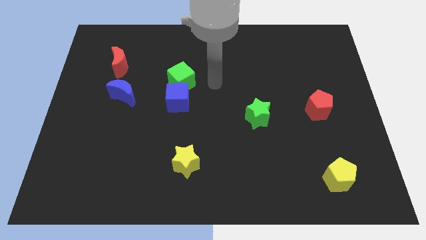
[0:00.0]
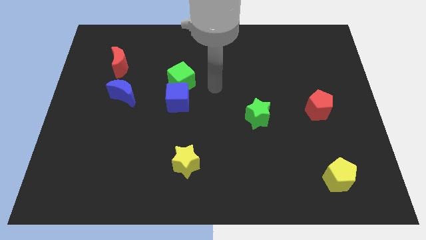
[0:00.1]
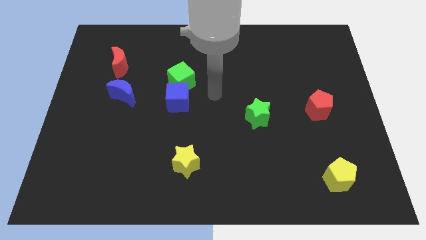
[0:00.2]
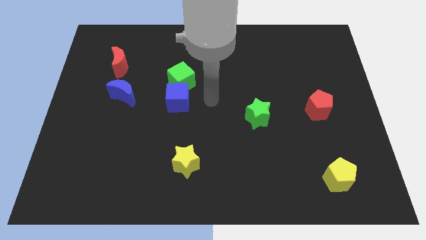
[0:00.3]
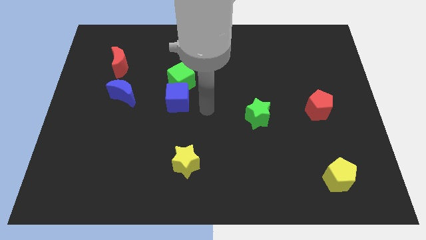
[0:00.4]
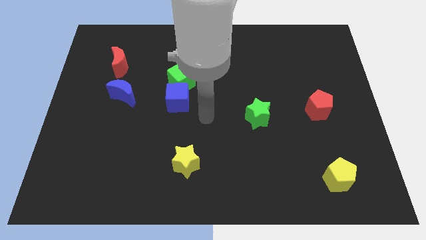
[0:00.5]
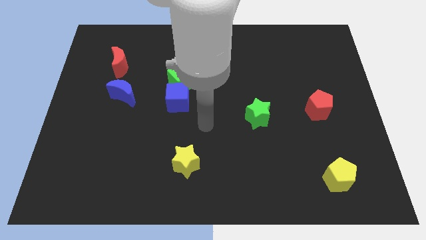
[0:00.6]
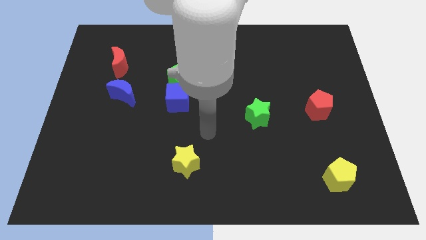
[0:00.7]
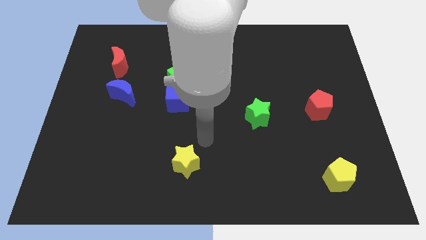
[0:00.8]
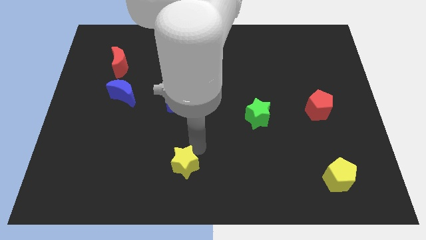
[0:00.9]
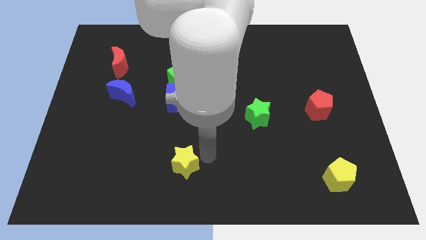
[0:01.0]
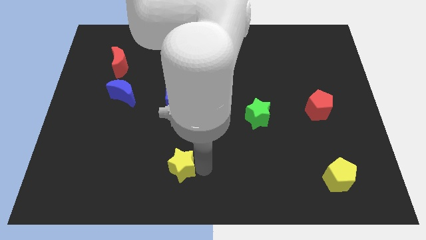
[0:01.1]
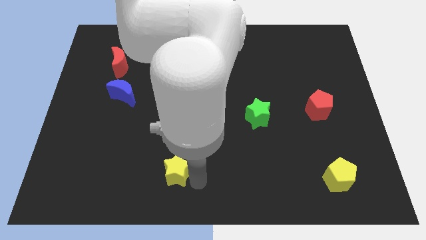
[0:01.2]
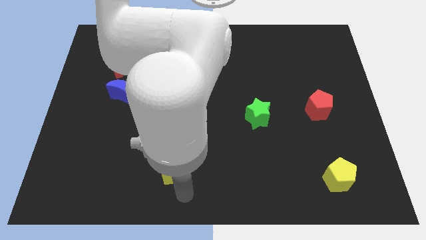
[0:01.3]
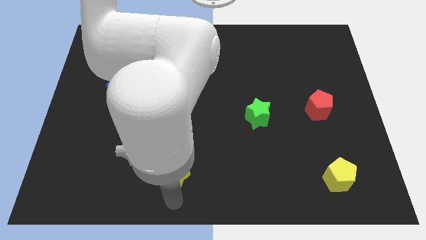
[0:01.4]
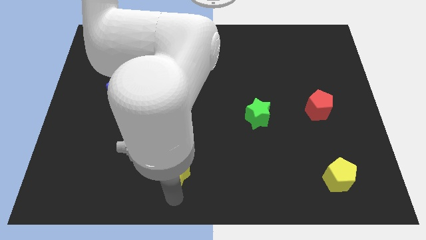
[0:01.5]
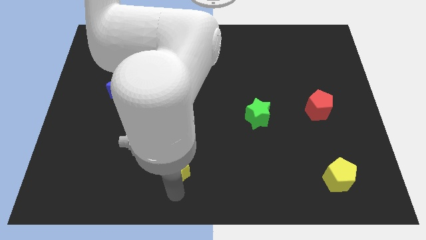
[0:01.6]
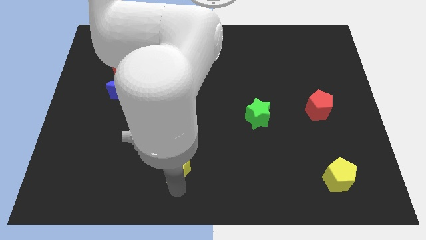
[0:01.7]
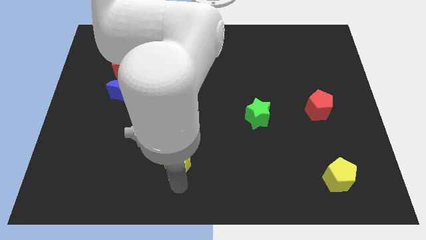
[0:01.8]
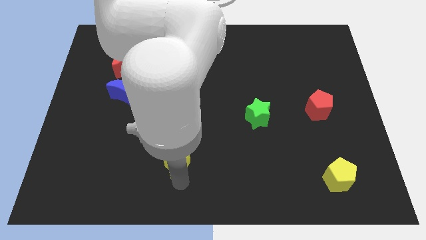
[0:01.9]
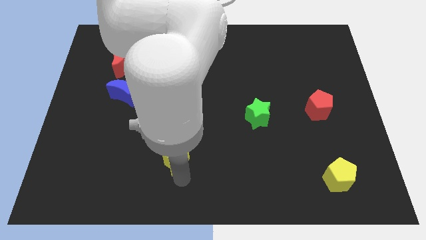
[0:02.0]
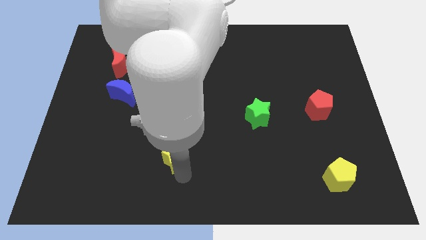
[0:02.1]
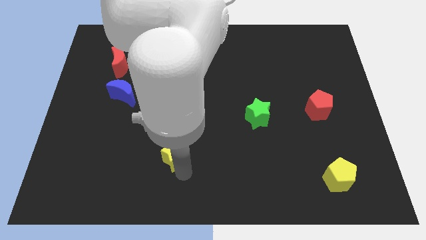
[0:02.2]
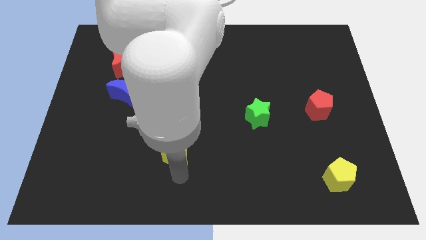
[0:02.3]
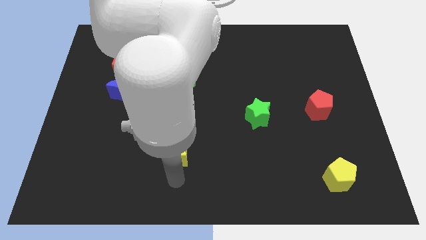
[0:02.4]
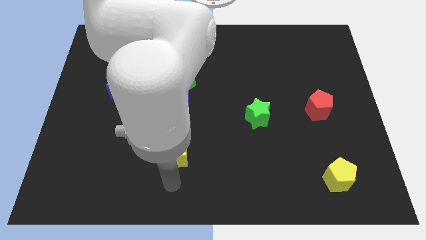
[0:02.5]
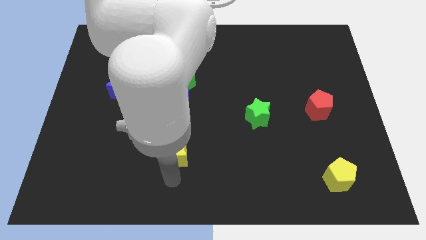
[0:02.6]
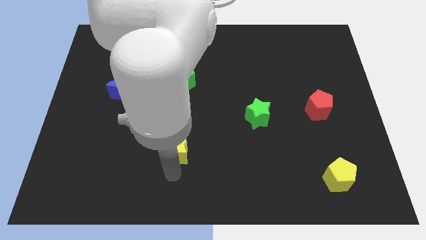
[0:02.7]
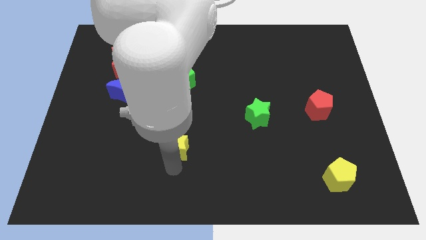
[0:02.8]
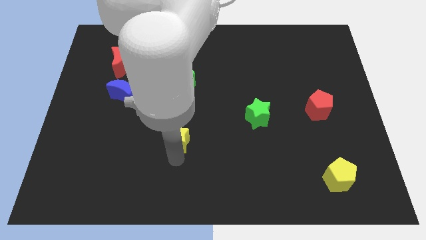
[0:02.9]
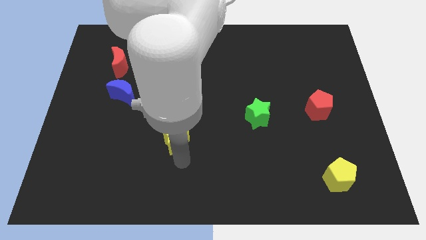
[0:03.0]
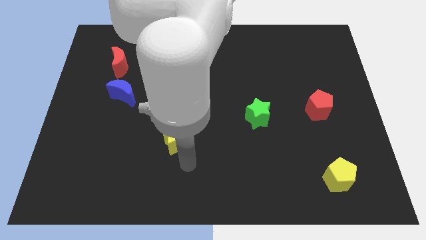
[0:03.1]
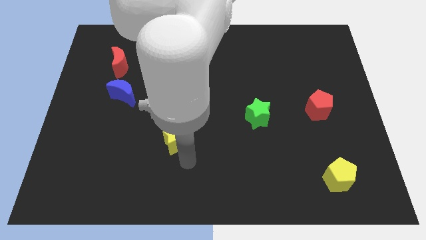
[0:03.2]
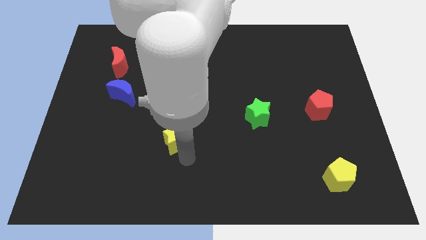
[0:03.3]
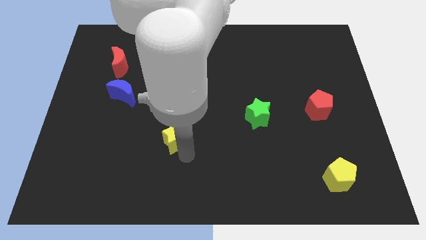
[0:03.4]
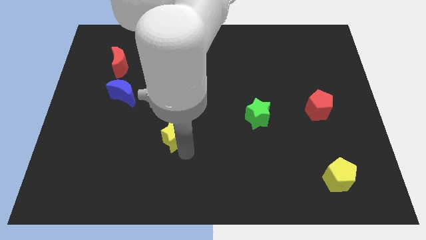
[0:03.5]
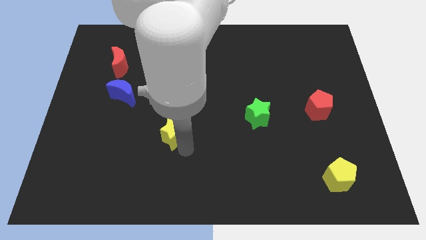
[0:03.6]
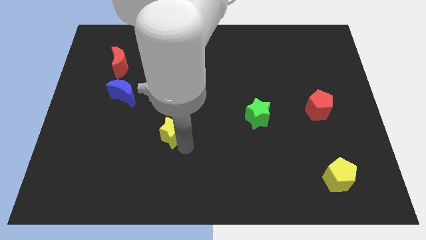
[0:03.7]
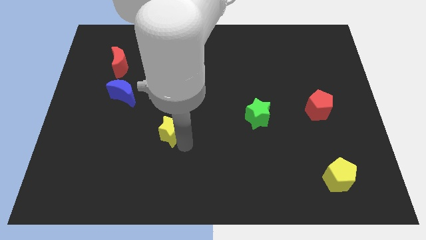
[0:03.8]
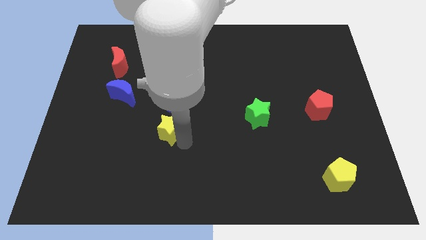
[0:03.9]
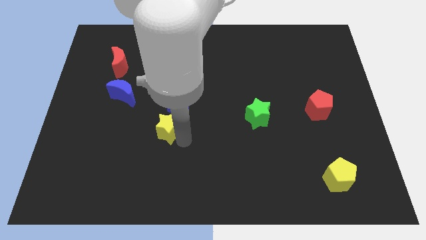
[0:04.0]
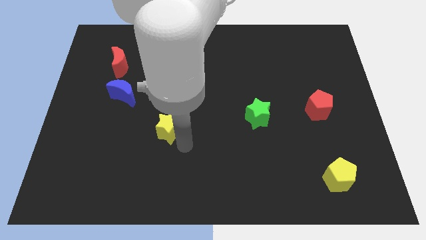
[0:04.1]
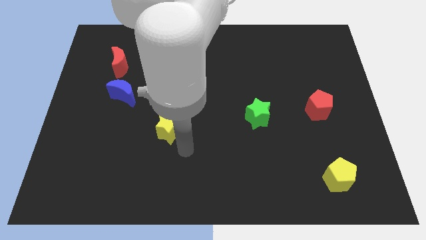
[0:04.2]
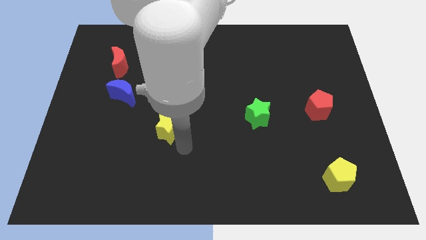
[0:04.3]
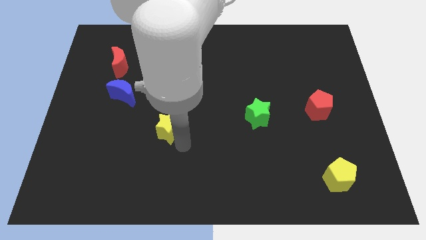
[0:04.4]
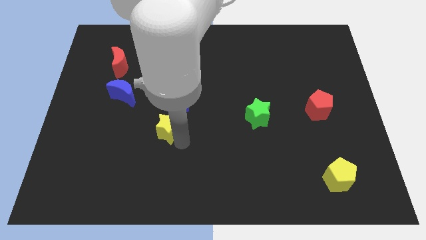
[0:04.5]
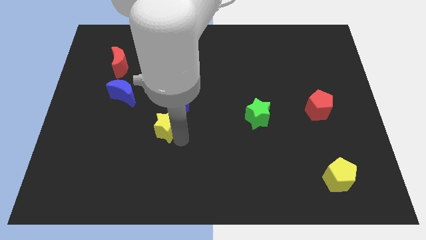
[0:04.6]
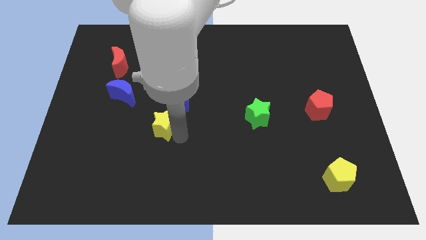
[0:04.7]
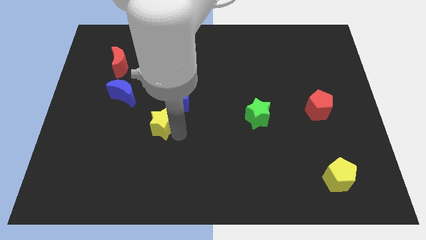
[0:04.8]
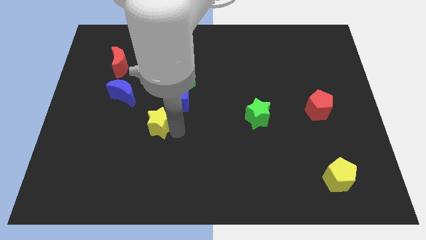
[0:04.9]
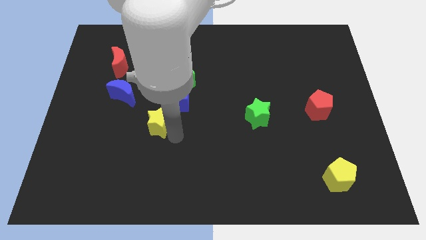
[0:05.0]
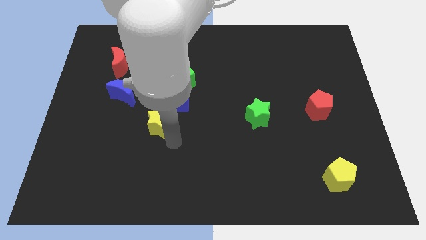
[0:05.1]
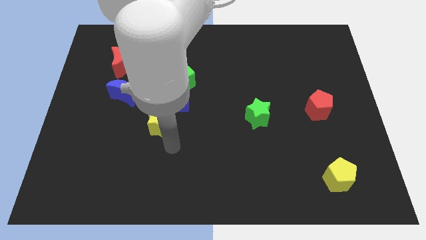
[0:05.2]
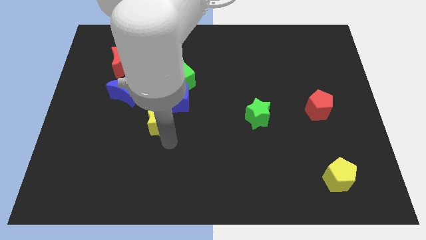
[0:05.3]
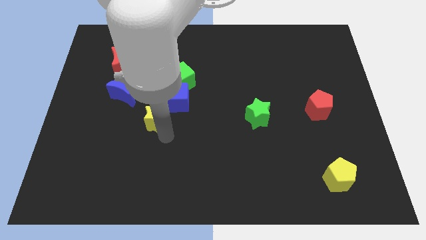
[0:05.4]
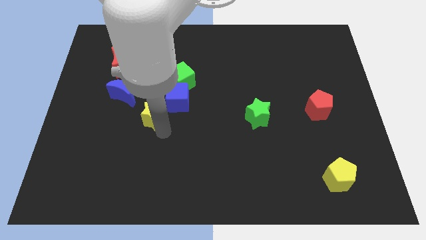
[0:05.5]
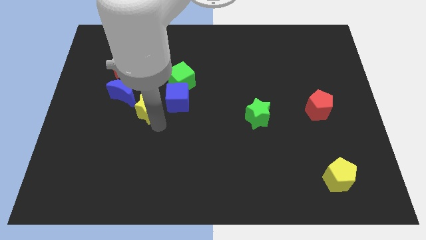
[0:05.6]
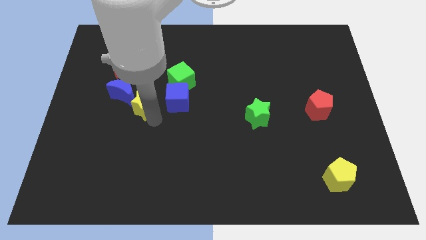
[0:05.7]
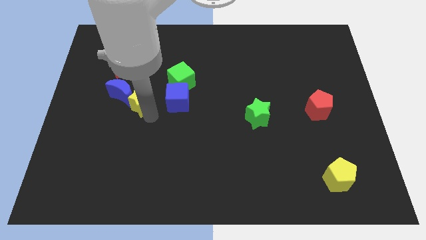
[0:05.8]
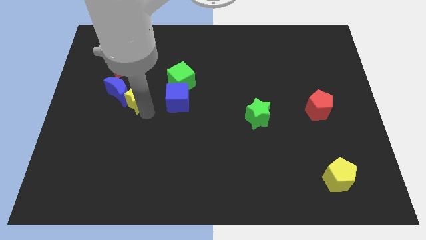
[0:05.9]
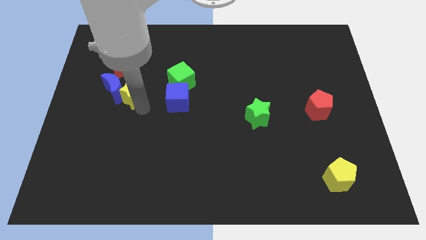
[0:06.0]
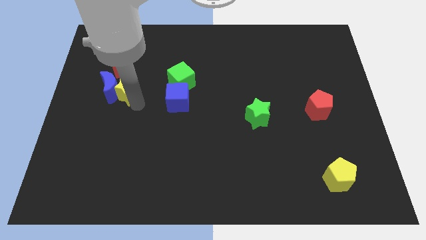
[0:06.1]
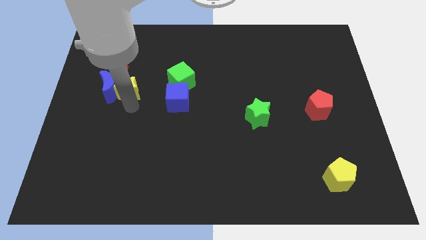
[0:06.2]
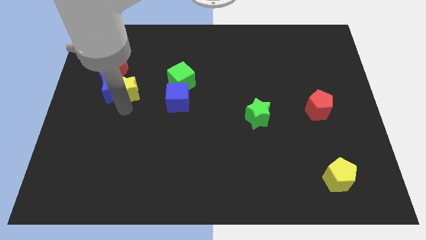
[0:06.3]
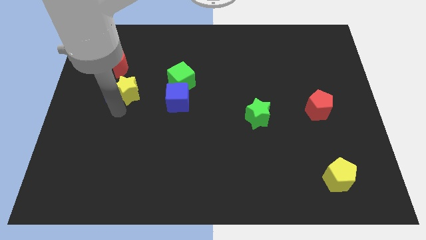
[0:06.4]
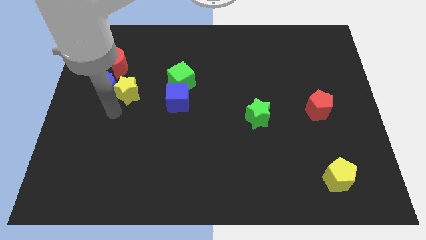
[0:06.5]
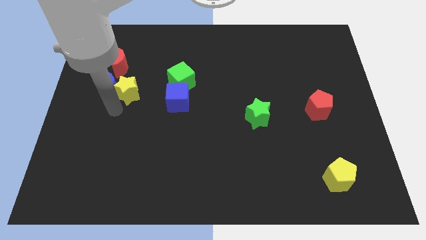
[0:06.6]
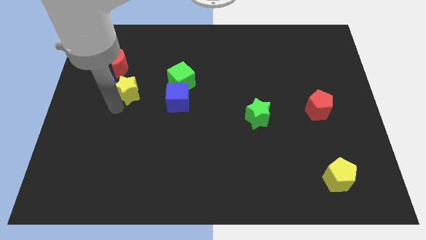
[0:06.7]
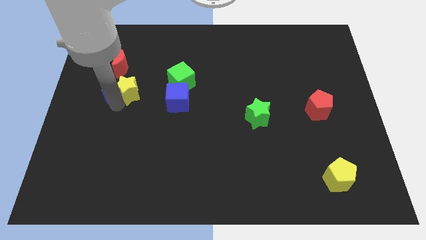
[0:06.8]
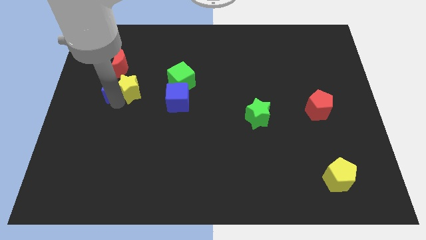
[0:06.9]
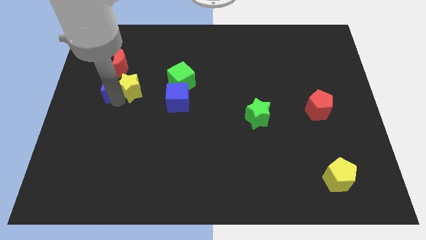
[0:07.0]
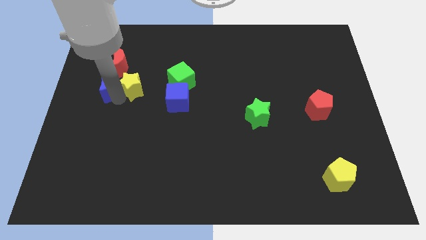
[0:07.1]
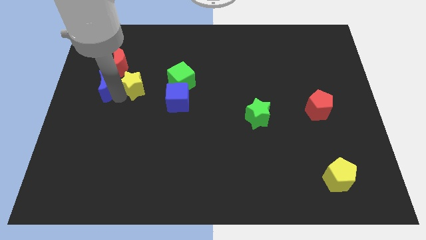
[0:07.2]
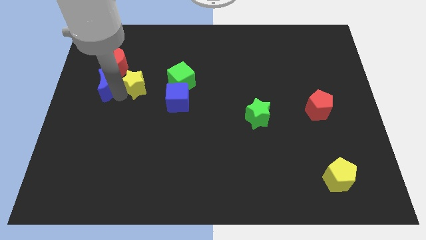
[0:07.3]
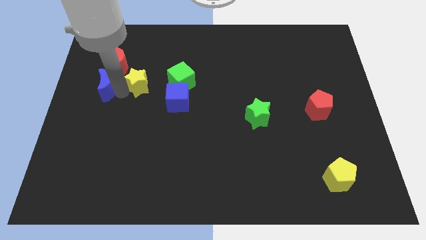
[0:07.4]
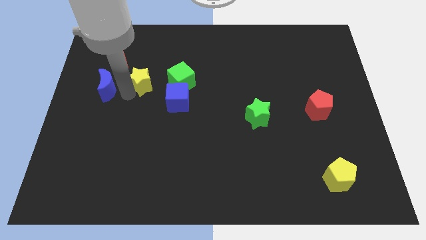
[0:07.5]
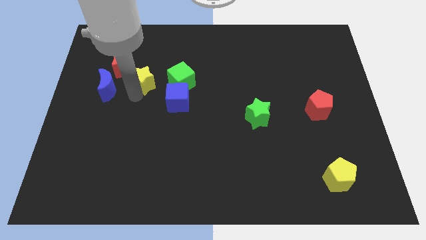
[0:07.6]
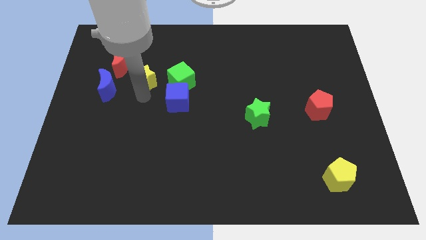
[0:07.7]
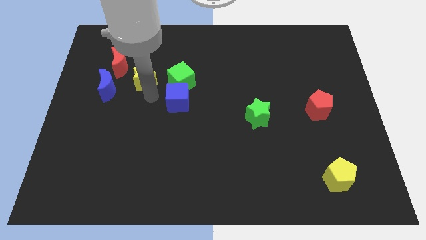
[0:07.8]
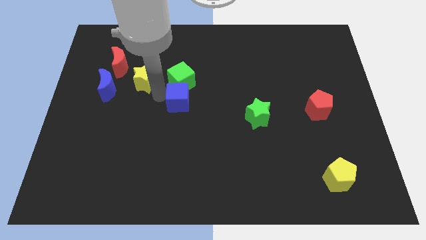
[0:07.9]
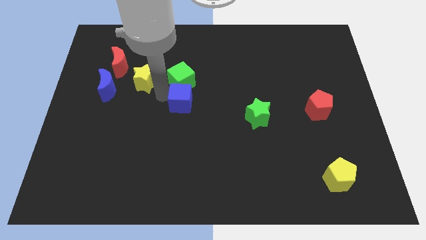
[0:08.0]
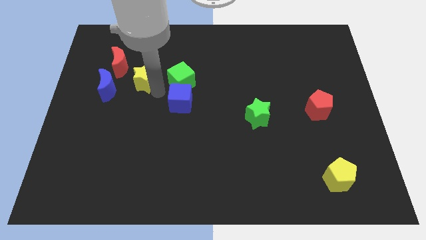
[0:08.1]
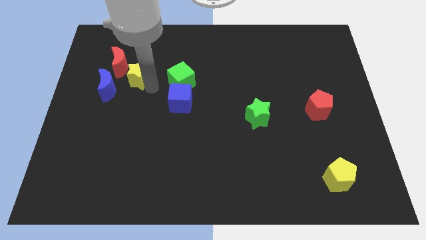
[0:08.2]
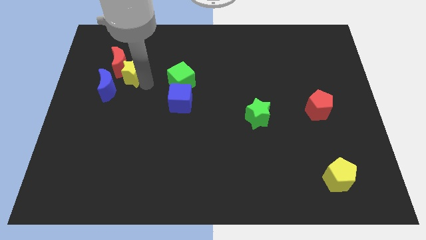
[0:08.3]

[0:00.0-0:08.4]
move the yellow star close to the red moon
